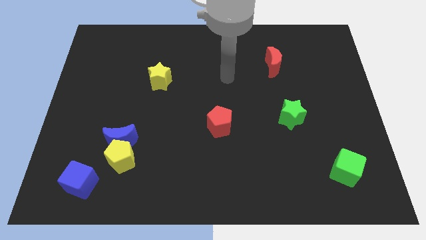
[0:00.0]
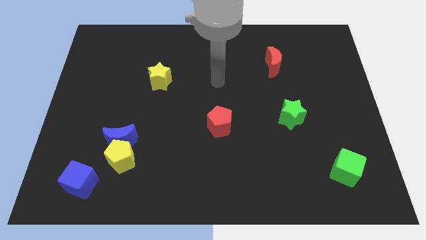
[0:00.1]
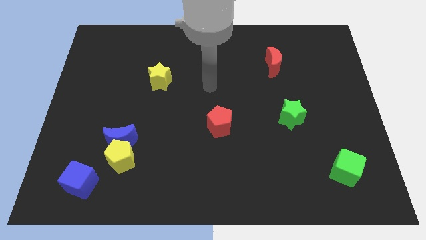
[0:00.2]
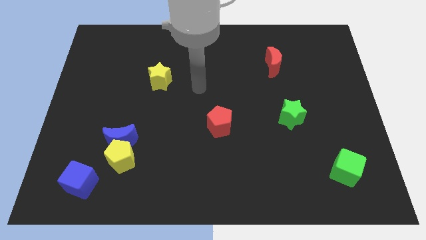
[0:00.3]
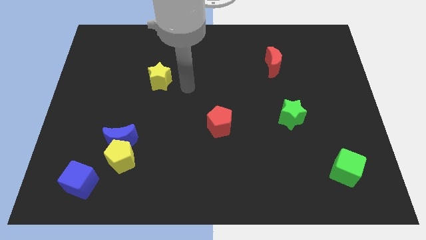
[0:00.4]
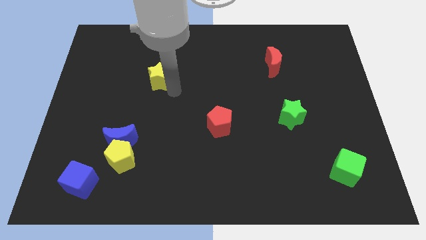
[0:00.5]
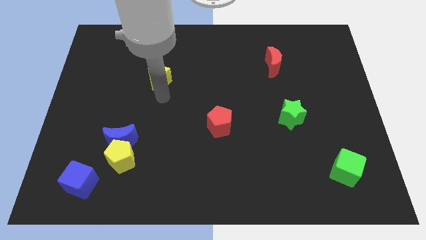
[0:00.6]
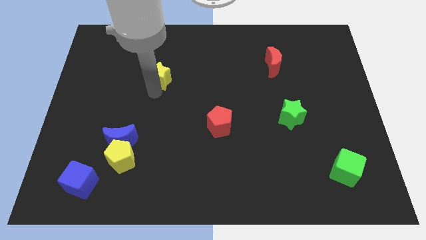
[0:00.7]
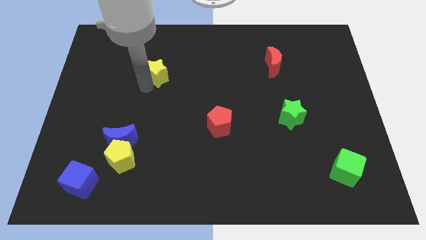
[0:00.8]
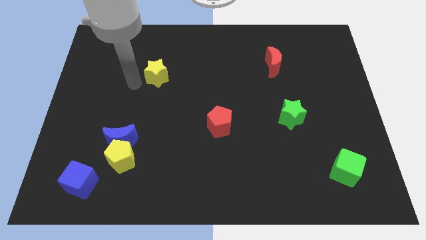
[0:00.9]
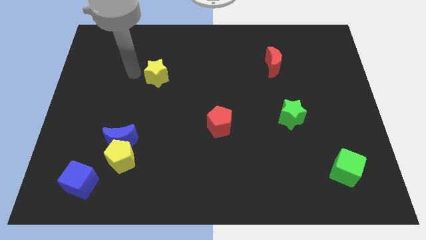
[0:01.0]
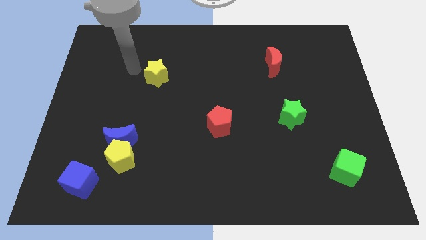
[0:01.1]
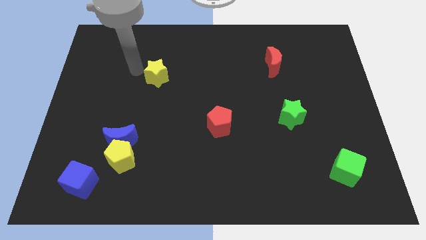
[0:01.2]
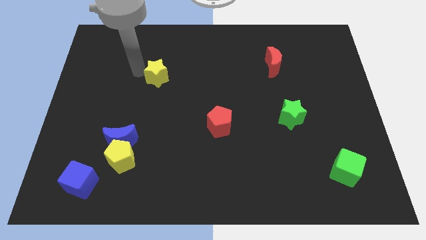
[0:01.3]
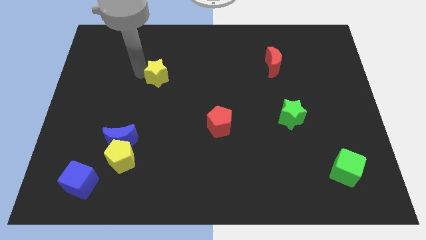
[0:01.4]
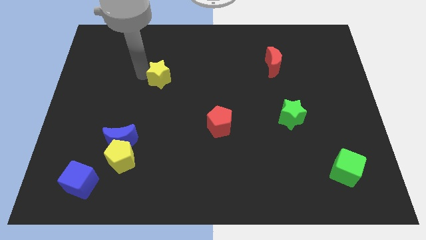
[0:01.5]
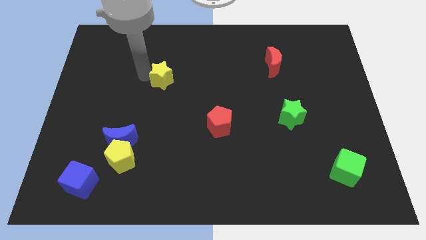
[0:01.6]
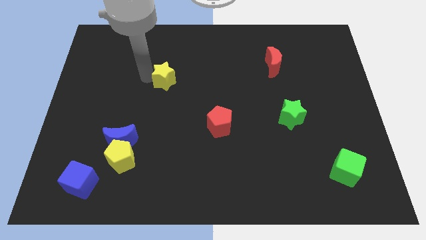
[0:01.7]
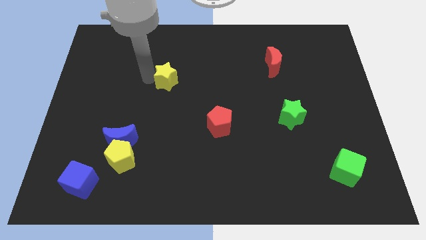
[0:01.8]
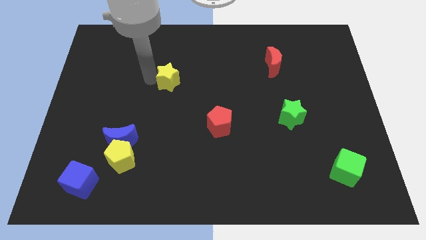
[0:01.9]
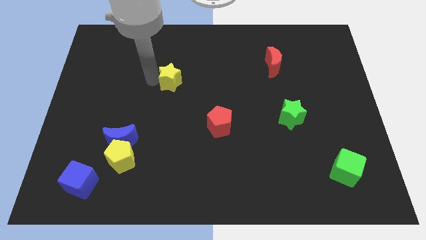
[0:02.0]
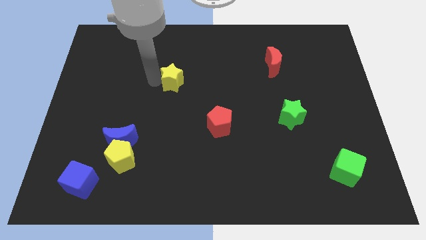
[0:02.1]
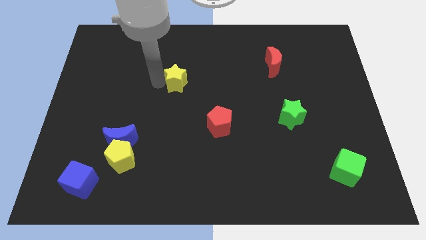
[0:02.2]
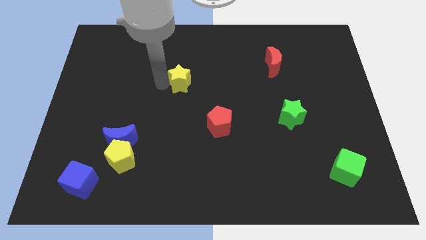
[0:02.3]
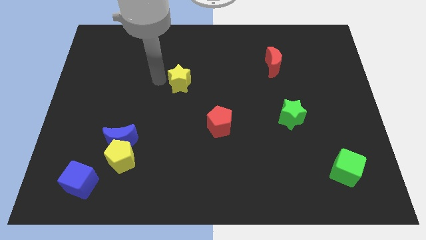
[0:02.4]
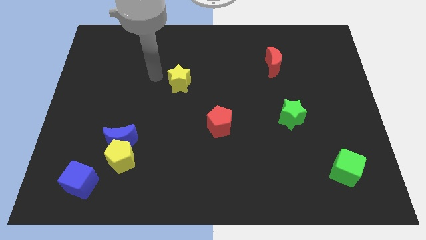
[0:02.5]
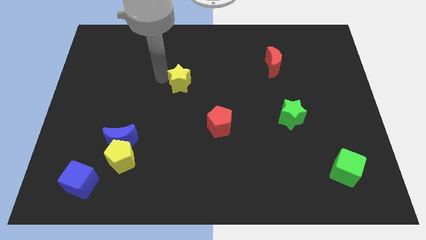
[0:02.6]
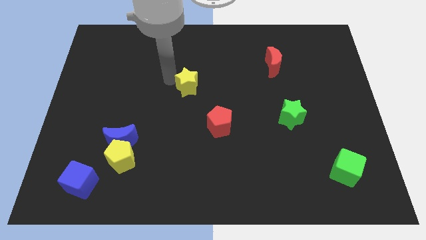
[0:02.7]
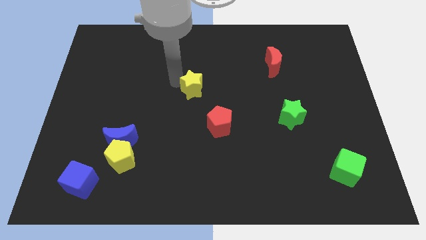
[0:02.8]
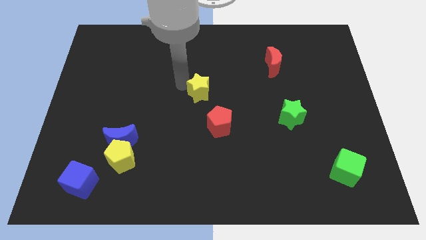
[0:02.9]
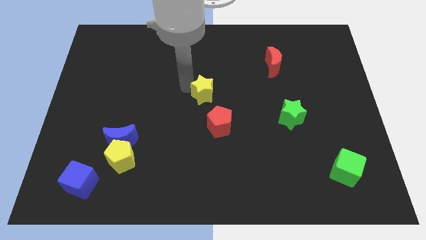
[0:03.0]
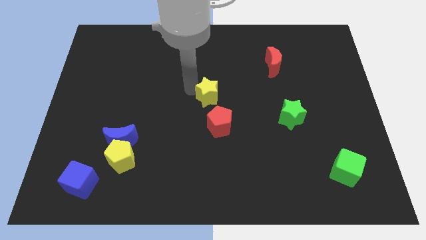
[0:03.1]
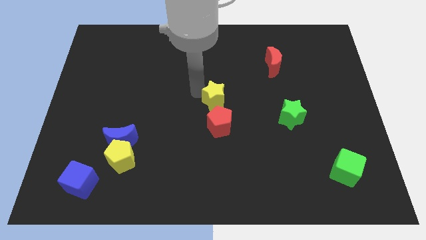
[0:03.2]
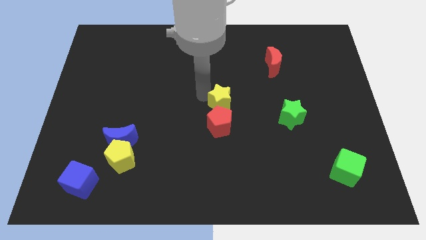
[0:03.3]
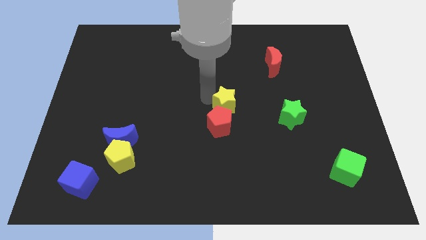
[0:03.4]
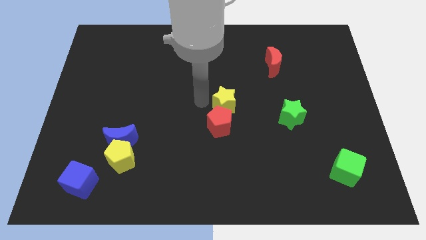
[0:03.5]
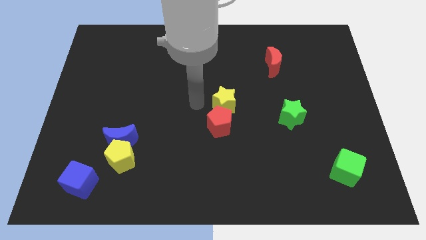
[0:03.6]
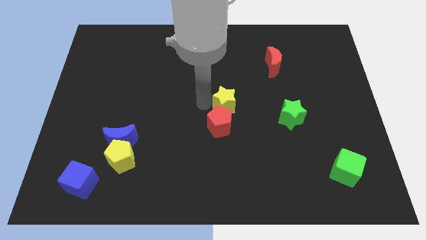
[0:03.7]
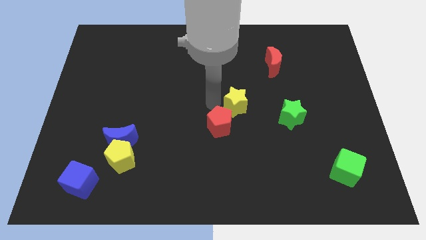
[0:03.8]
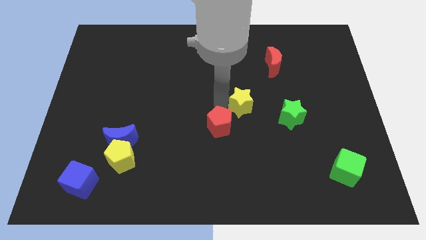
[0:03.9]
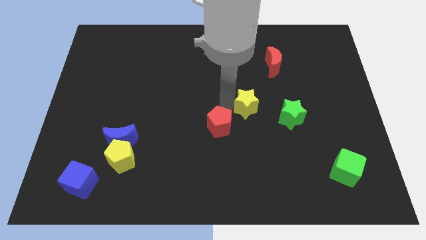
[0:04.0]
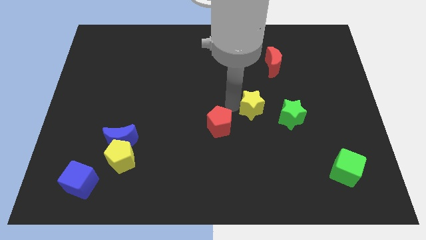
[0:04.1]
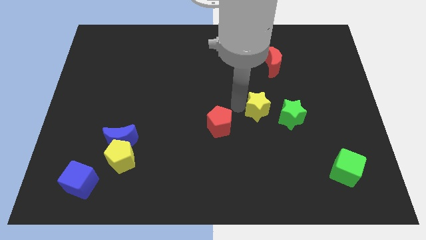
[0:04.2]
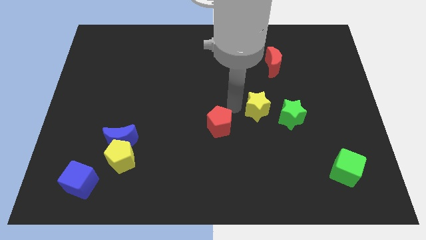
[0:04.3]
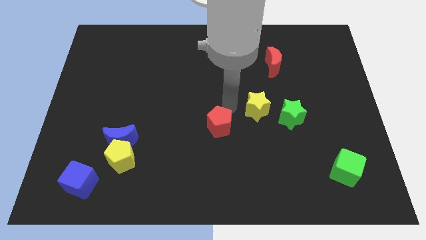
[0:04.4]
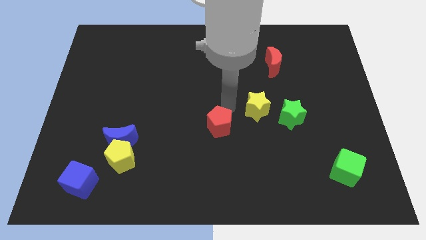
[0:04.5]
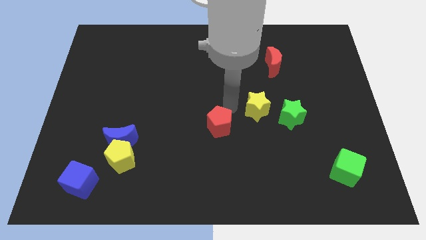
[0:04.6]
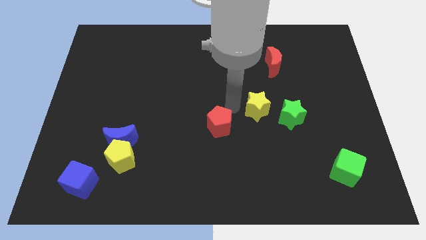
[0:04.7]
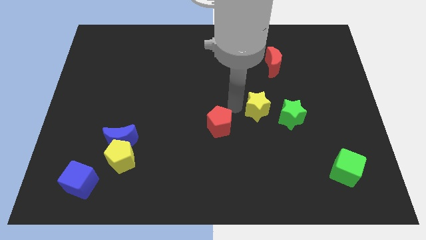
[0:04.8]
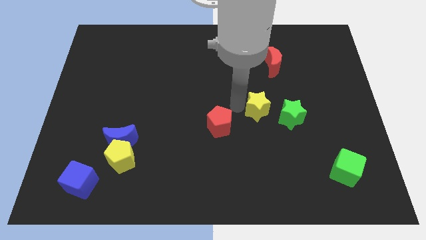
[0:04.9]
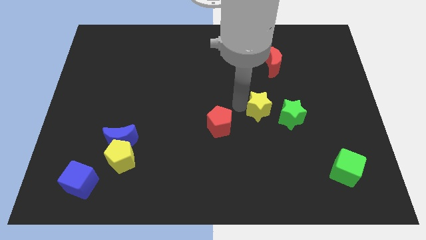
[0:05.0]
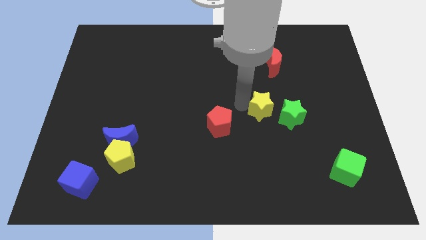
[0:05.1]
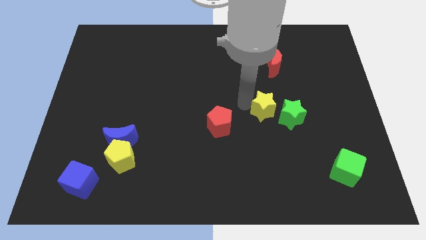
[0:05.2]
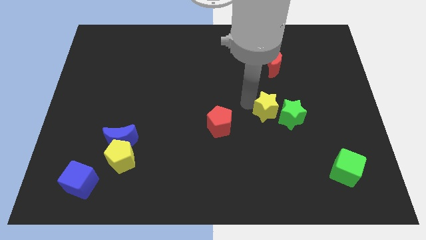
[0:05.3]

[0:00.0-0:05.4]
push the yellow star towards the green star

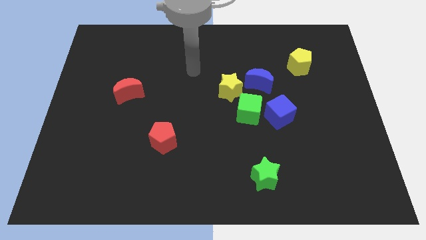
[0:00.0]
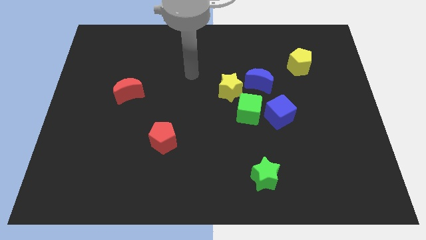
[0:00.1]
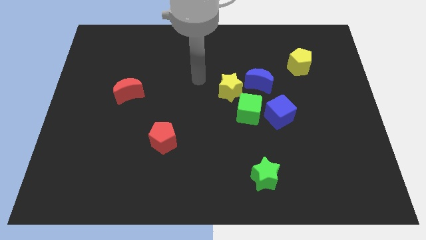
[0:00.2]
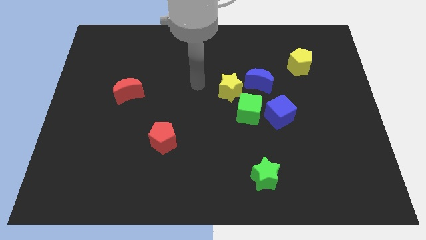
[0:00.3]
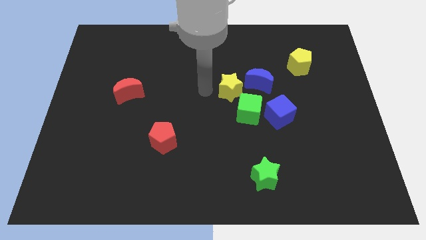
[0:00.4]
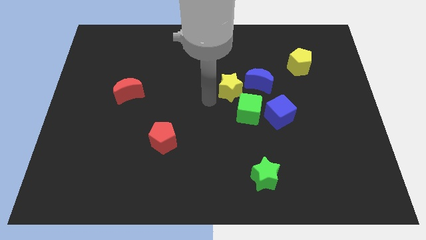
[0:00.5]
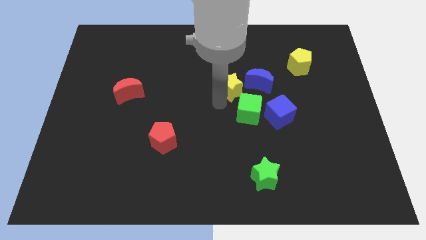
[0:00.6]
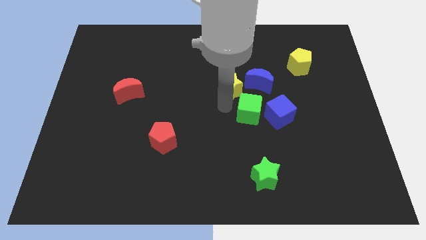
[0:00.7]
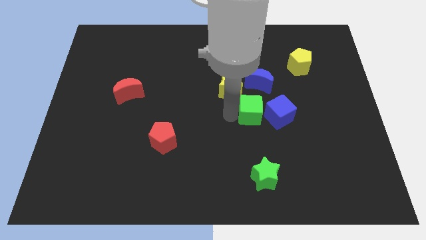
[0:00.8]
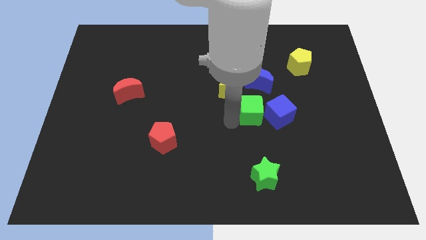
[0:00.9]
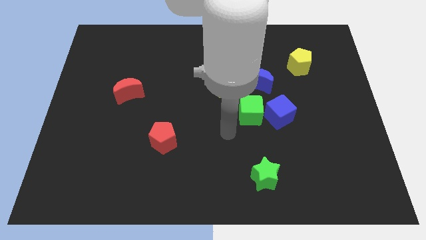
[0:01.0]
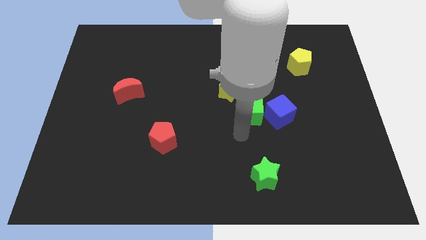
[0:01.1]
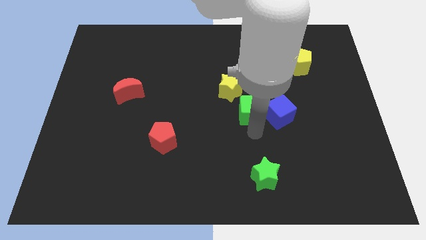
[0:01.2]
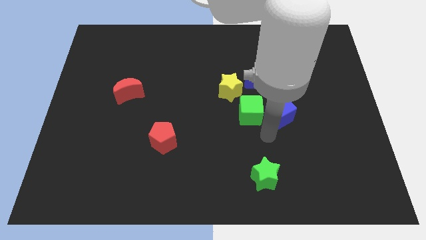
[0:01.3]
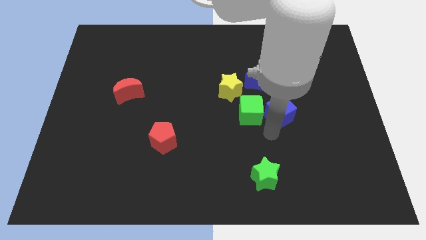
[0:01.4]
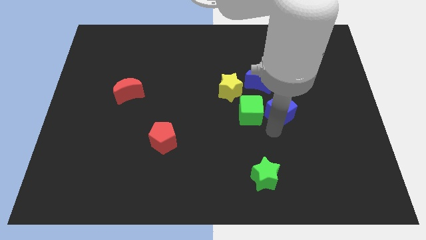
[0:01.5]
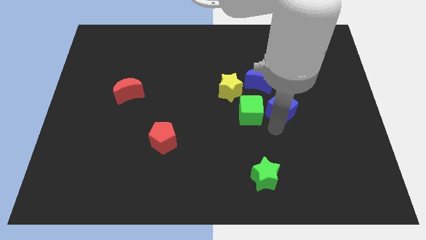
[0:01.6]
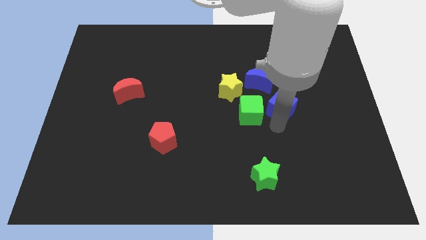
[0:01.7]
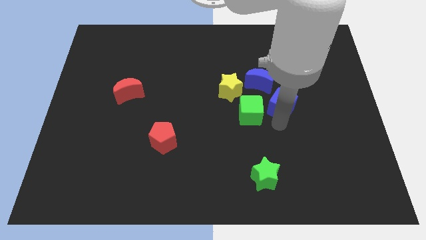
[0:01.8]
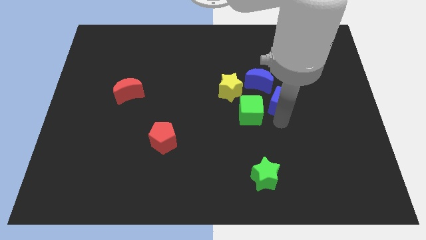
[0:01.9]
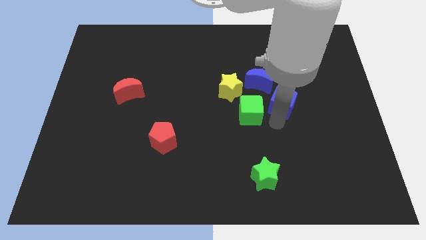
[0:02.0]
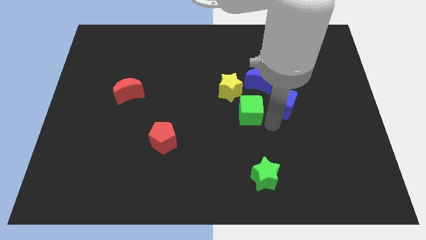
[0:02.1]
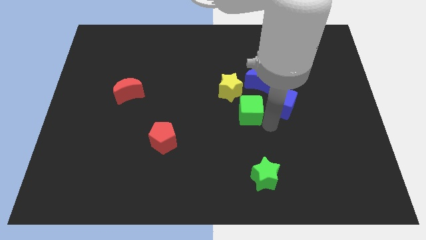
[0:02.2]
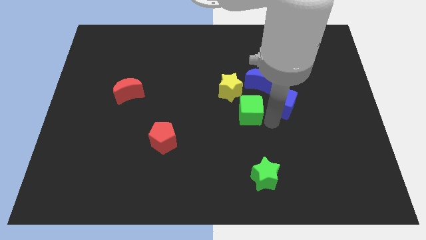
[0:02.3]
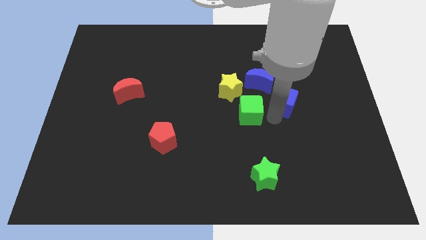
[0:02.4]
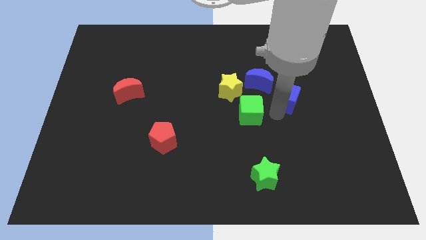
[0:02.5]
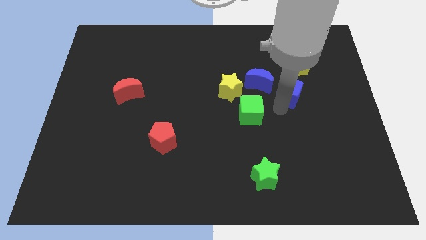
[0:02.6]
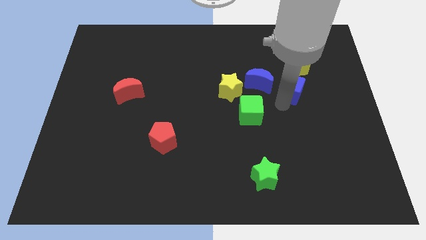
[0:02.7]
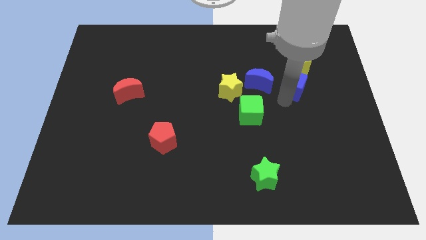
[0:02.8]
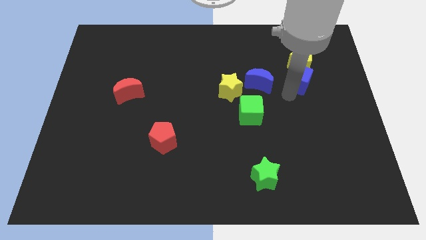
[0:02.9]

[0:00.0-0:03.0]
move the blue cube towards the yellow pentagon

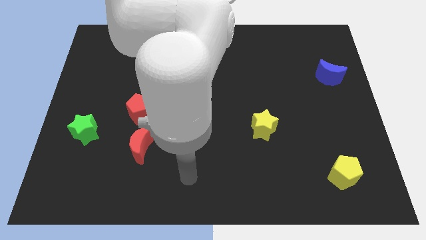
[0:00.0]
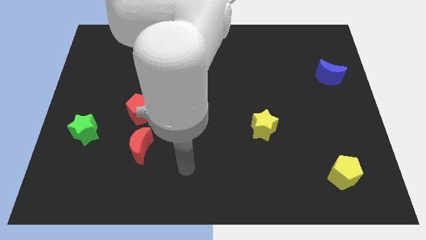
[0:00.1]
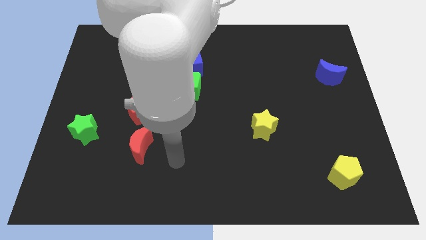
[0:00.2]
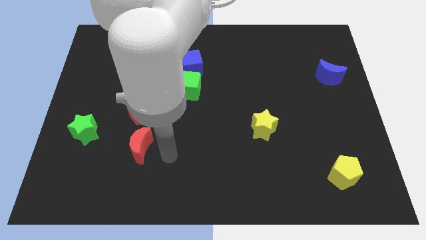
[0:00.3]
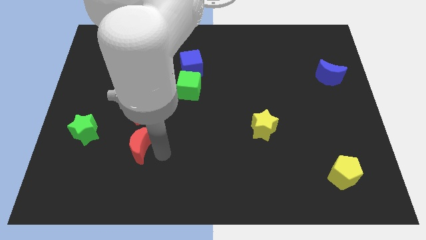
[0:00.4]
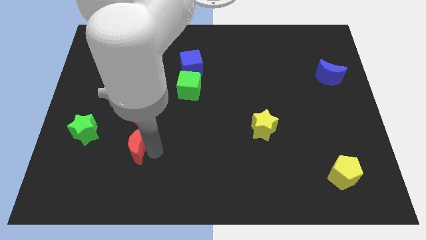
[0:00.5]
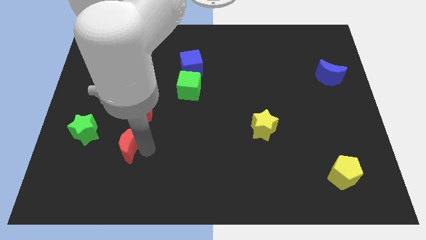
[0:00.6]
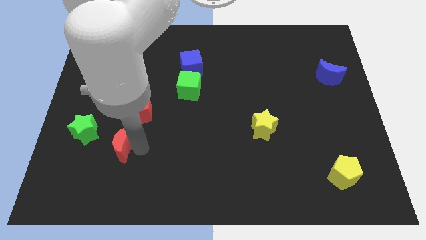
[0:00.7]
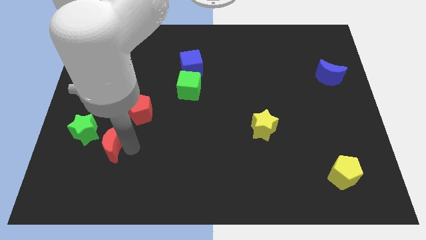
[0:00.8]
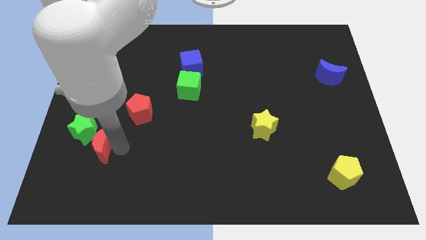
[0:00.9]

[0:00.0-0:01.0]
push the red moon next to the green star
